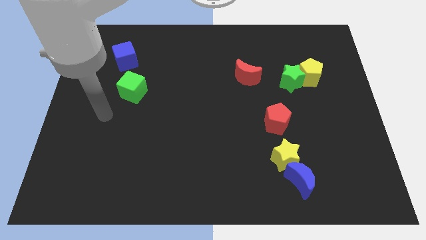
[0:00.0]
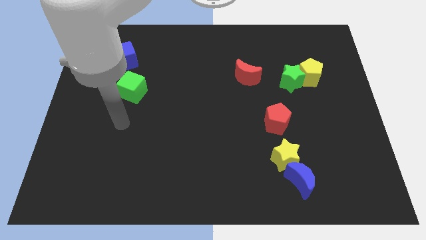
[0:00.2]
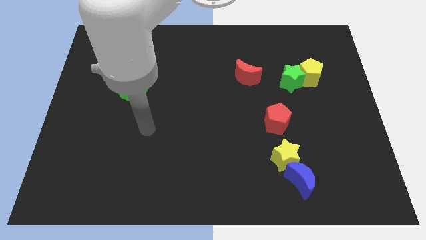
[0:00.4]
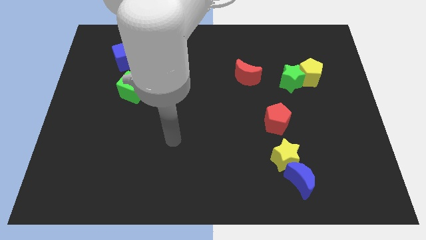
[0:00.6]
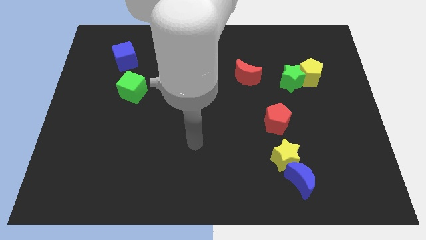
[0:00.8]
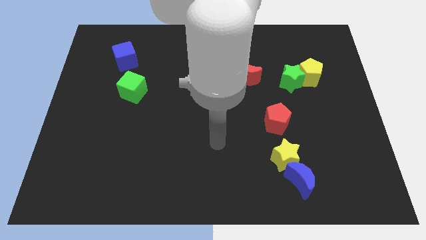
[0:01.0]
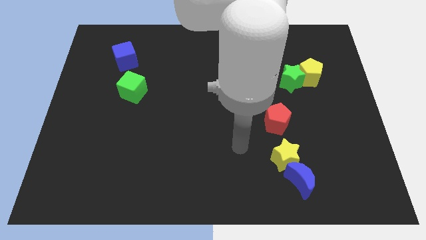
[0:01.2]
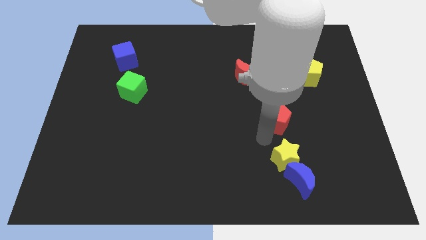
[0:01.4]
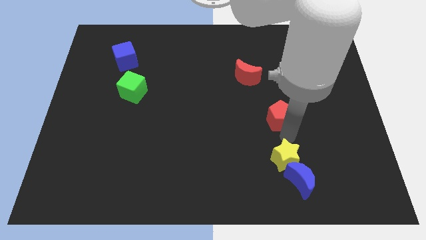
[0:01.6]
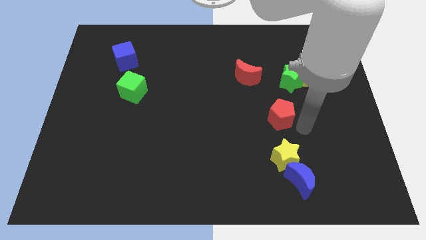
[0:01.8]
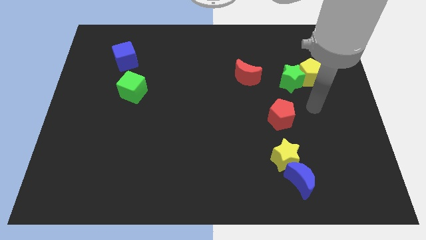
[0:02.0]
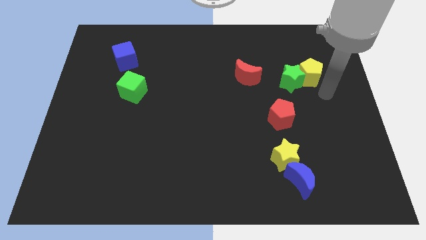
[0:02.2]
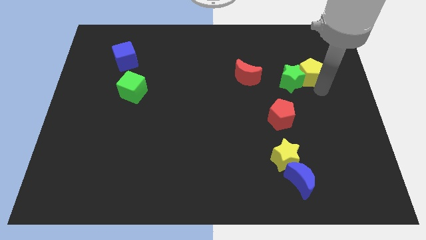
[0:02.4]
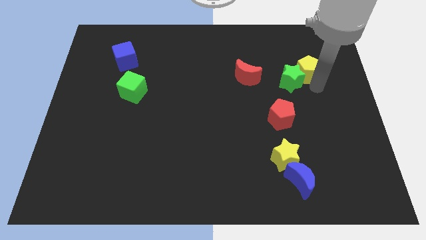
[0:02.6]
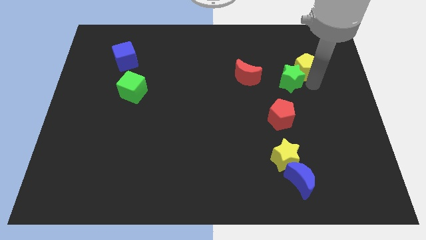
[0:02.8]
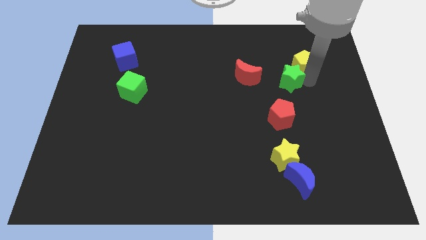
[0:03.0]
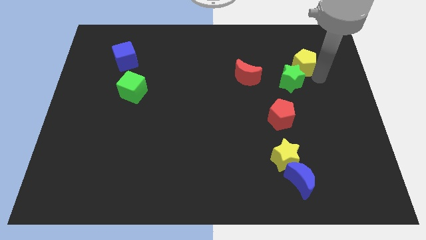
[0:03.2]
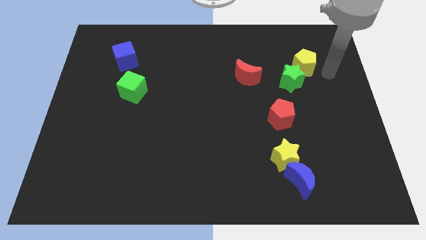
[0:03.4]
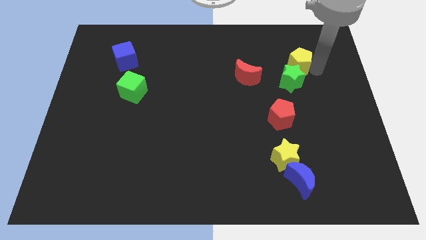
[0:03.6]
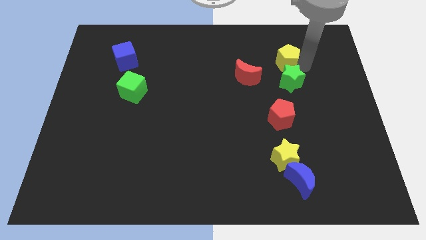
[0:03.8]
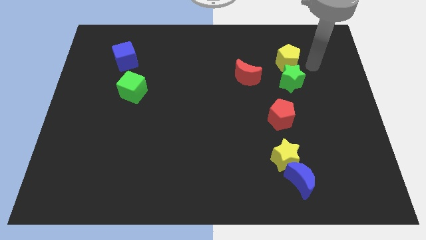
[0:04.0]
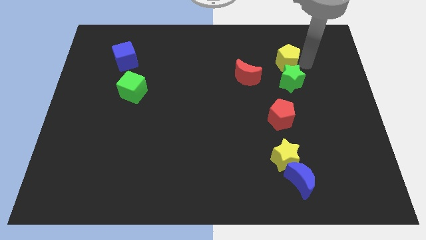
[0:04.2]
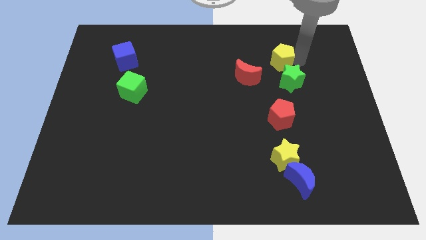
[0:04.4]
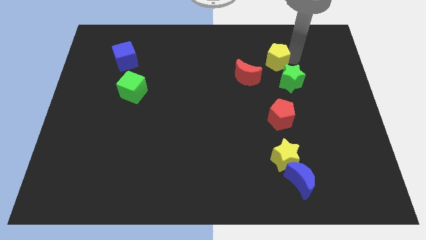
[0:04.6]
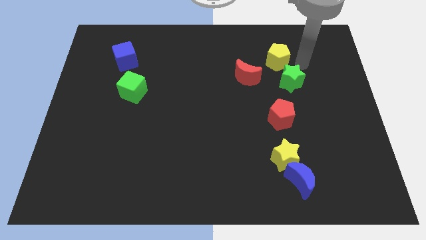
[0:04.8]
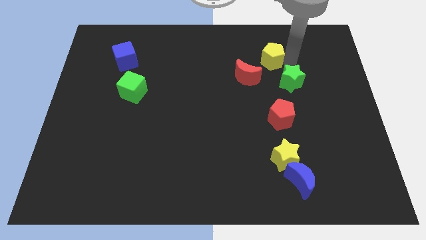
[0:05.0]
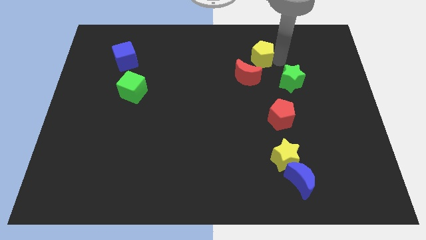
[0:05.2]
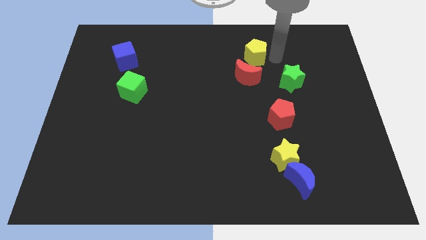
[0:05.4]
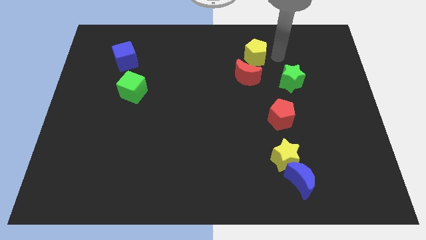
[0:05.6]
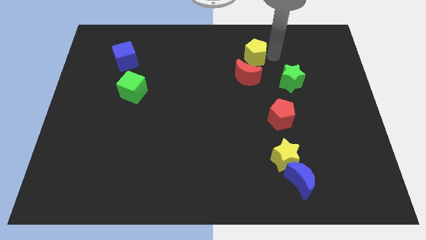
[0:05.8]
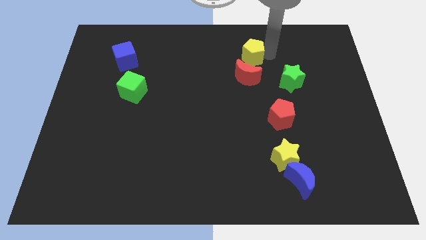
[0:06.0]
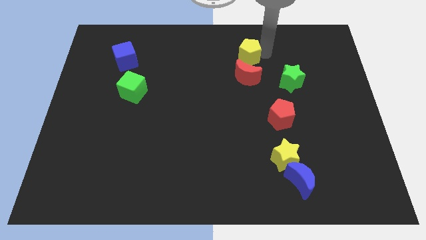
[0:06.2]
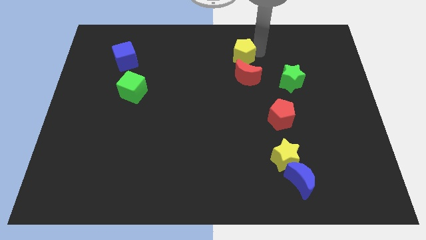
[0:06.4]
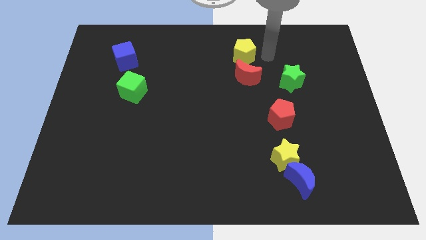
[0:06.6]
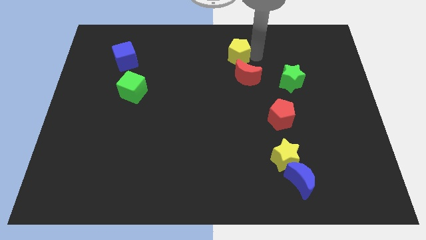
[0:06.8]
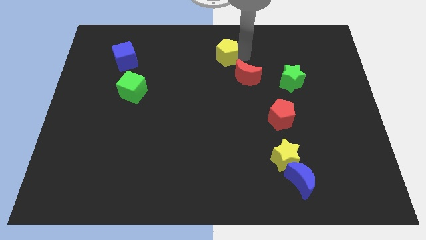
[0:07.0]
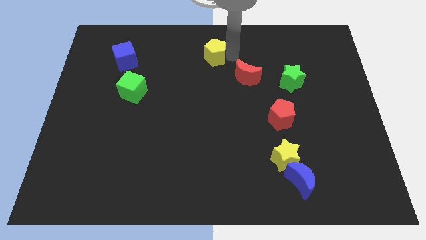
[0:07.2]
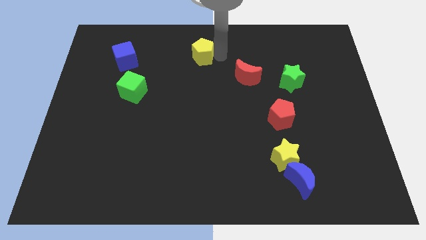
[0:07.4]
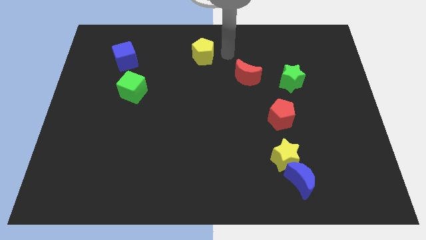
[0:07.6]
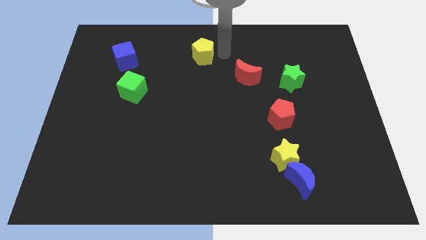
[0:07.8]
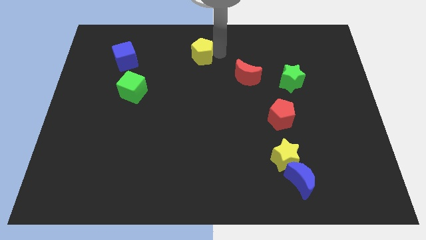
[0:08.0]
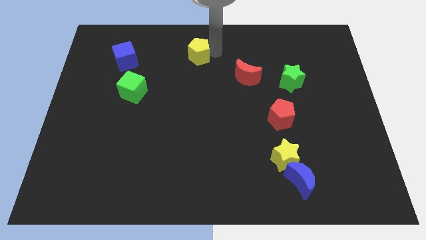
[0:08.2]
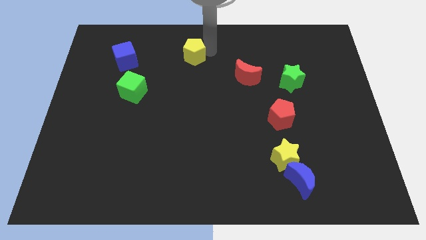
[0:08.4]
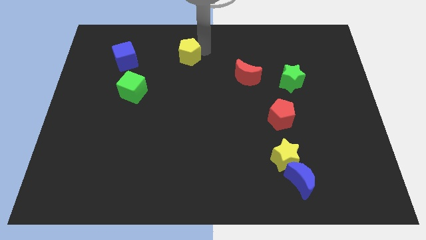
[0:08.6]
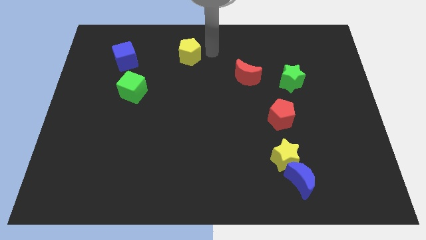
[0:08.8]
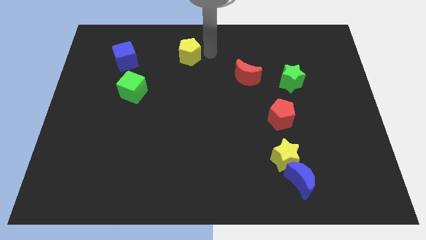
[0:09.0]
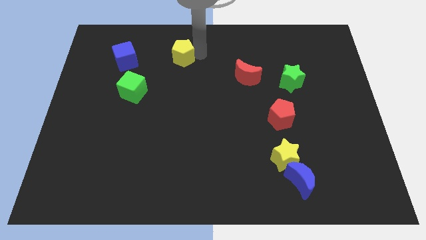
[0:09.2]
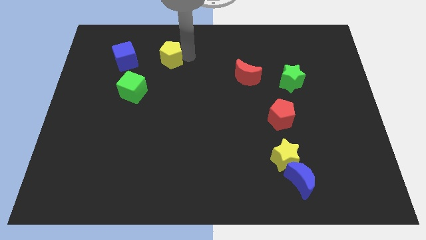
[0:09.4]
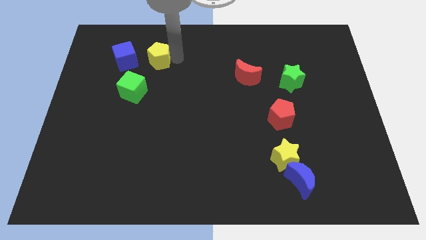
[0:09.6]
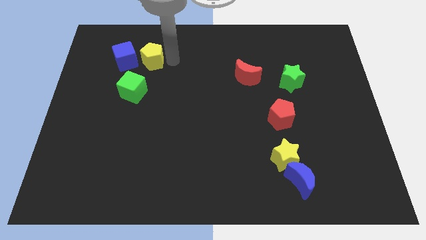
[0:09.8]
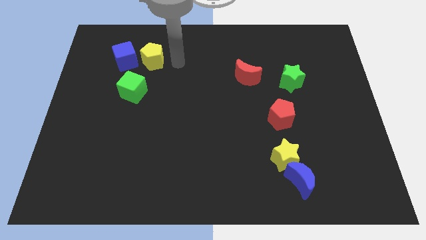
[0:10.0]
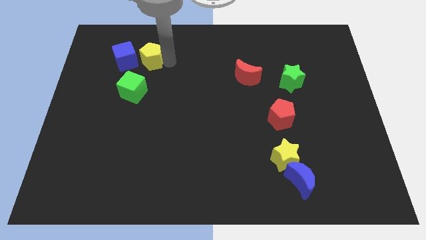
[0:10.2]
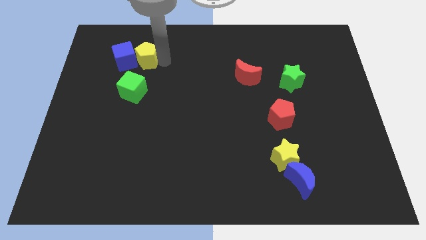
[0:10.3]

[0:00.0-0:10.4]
push the yellow pentagon to the blue cube

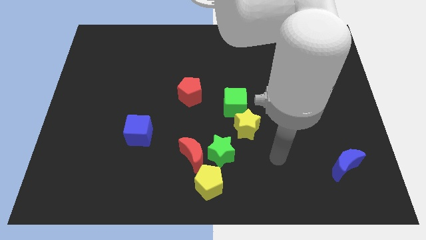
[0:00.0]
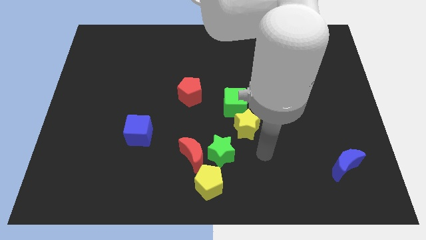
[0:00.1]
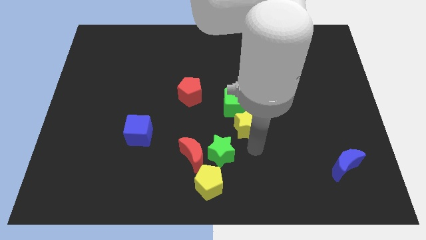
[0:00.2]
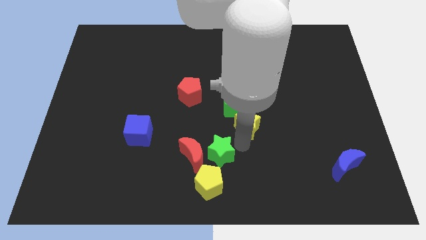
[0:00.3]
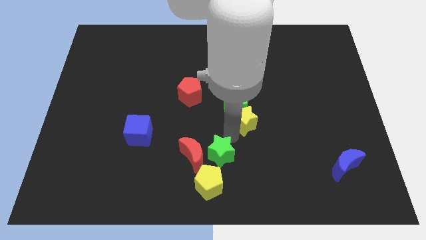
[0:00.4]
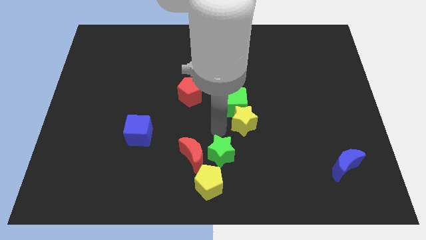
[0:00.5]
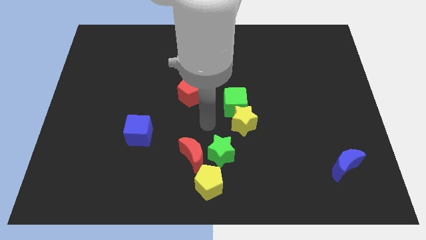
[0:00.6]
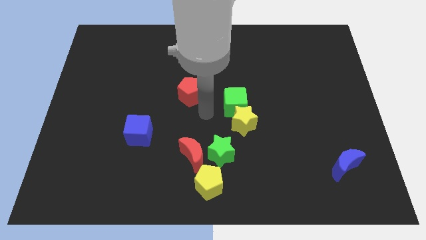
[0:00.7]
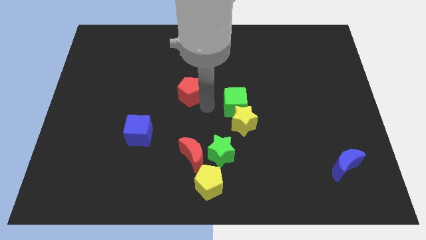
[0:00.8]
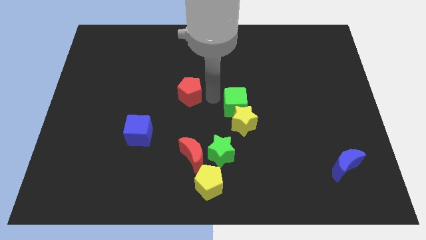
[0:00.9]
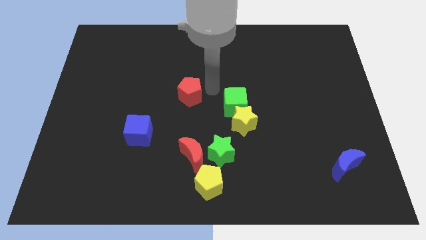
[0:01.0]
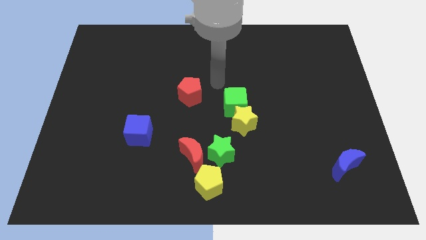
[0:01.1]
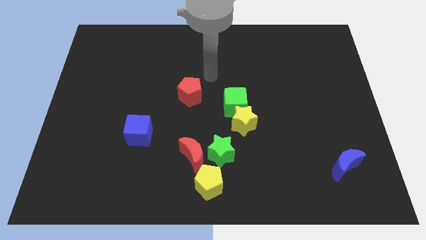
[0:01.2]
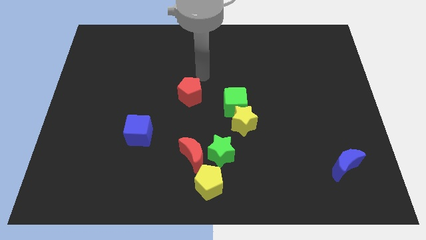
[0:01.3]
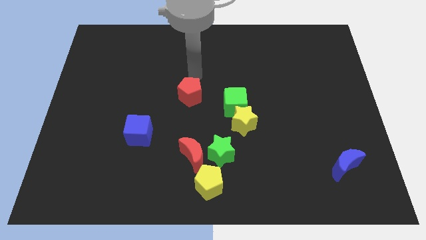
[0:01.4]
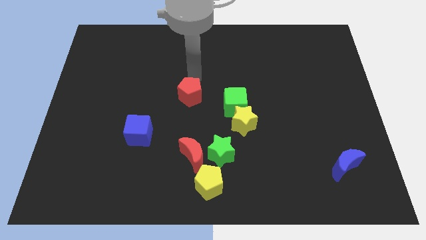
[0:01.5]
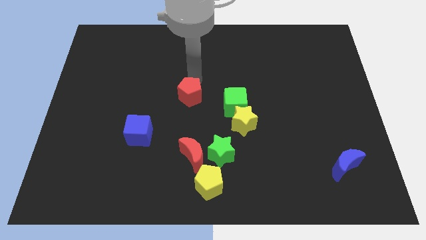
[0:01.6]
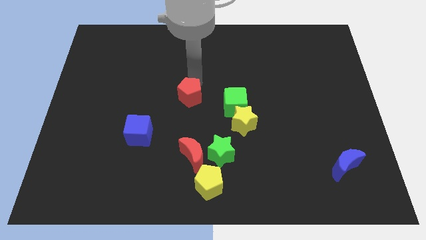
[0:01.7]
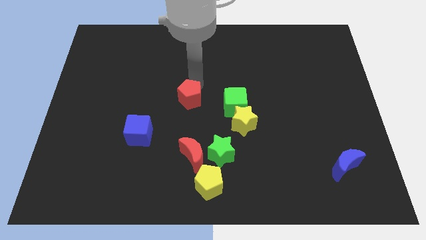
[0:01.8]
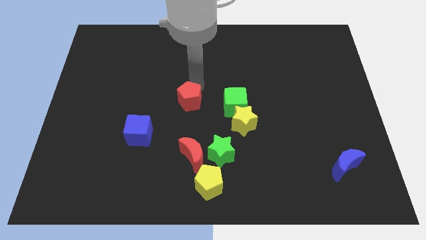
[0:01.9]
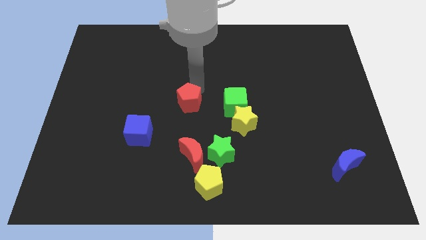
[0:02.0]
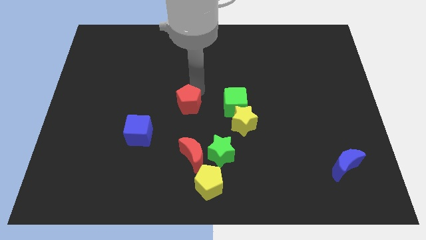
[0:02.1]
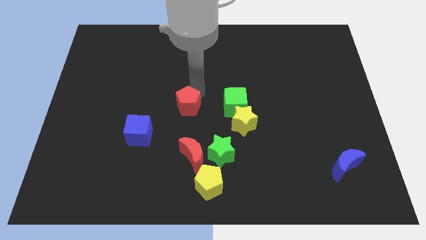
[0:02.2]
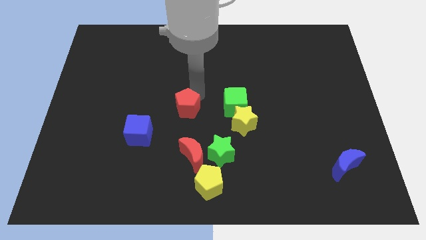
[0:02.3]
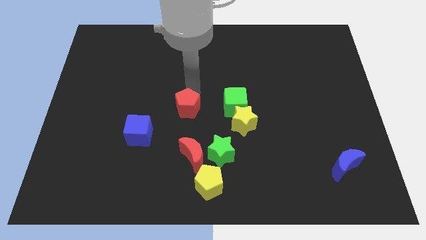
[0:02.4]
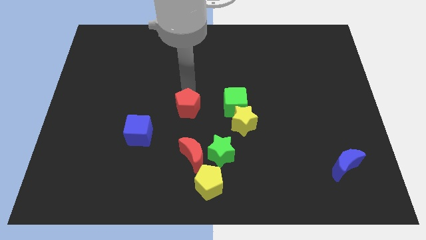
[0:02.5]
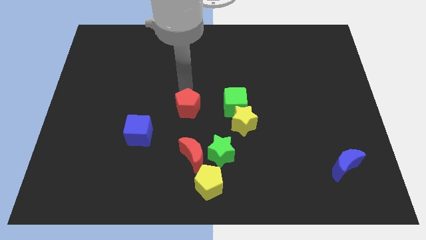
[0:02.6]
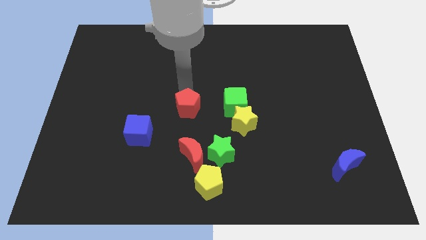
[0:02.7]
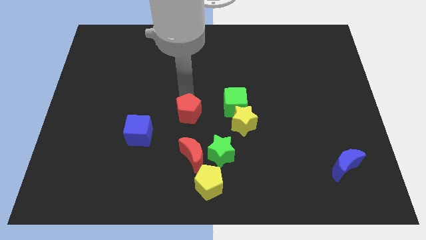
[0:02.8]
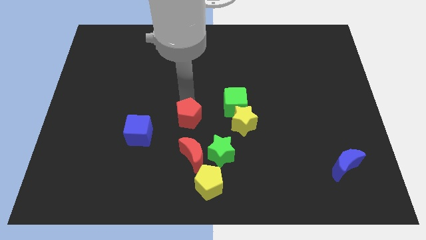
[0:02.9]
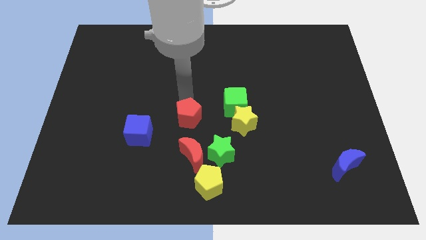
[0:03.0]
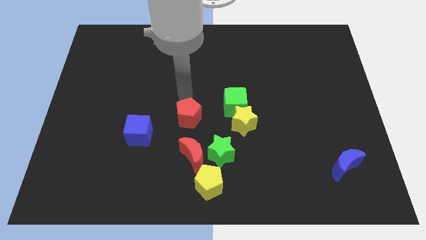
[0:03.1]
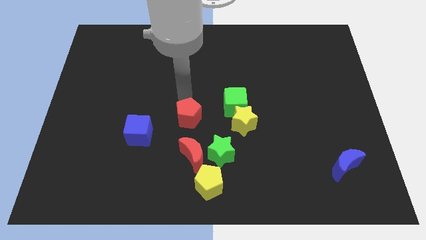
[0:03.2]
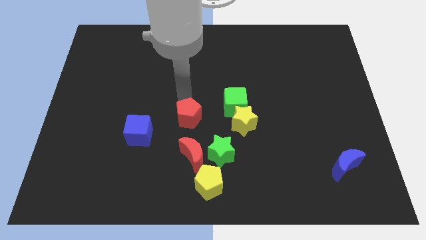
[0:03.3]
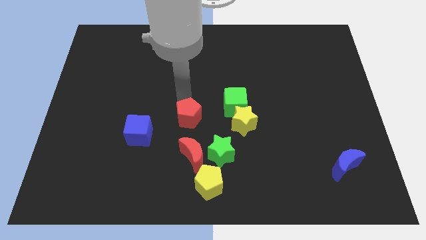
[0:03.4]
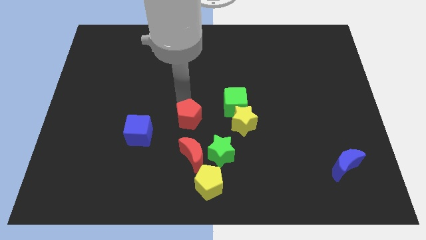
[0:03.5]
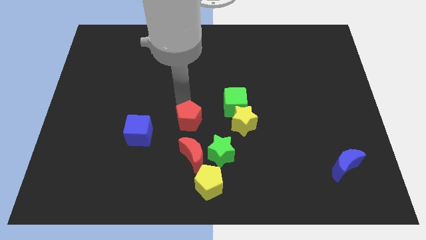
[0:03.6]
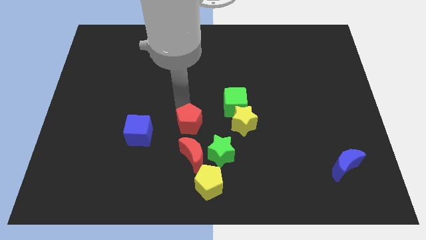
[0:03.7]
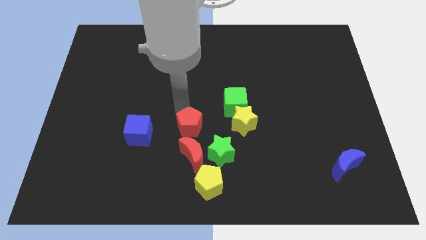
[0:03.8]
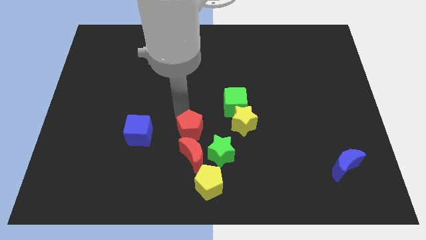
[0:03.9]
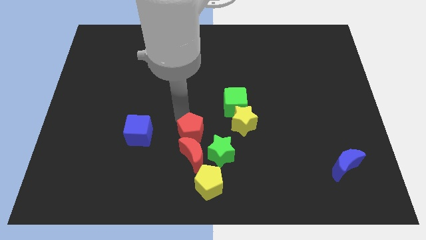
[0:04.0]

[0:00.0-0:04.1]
move the red pentagon towards the red moon
